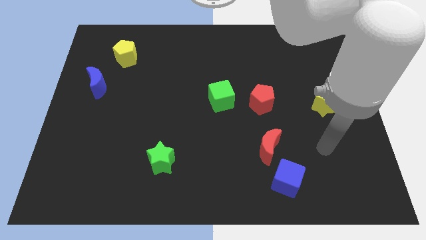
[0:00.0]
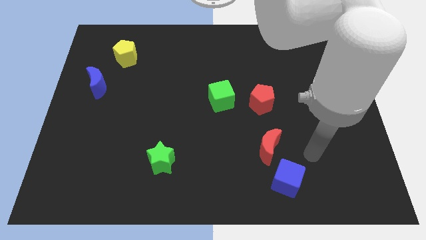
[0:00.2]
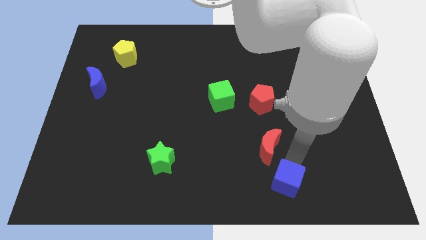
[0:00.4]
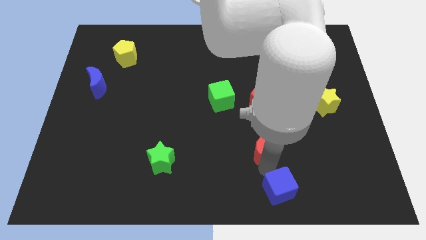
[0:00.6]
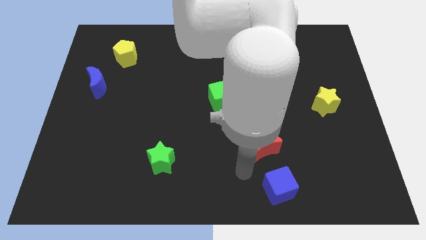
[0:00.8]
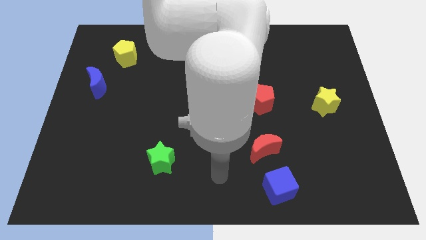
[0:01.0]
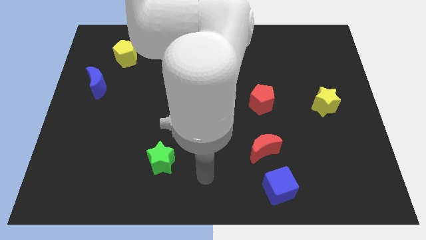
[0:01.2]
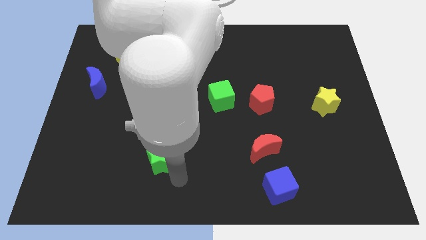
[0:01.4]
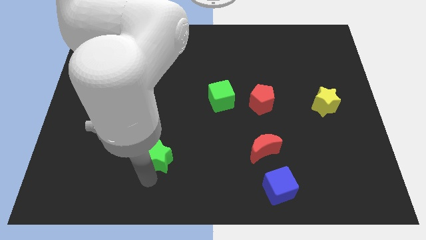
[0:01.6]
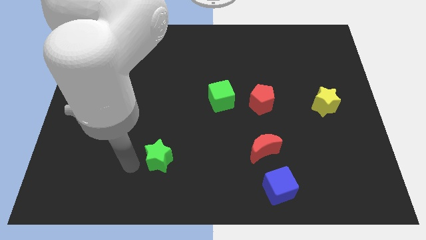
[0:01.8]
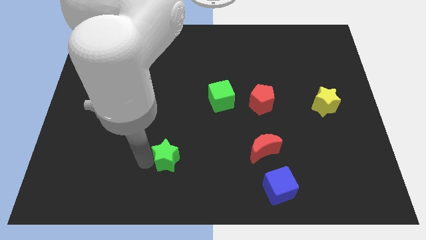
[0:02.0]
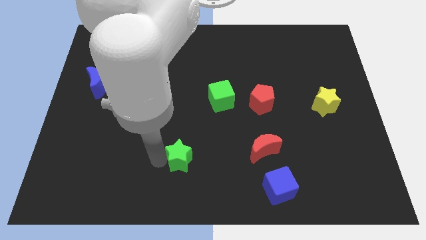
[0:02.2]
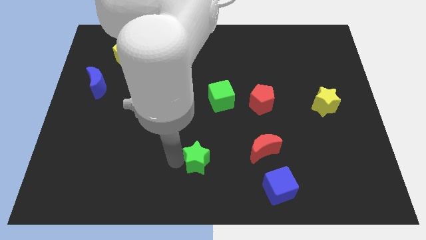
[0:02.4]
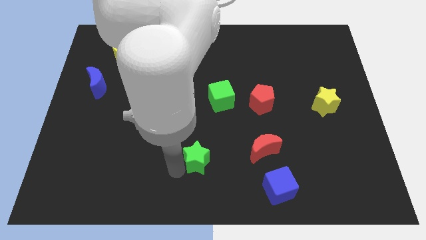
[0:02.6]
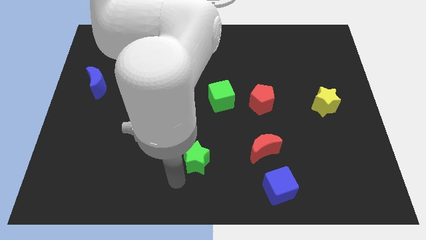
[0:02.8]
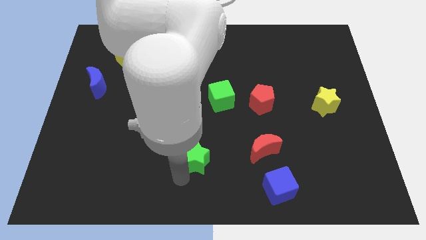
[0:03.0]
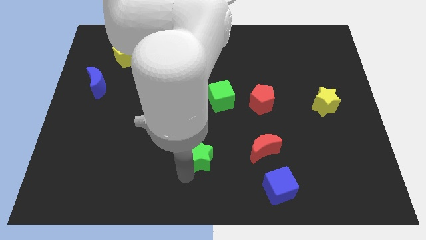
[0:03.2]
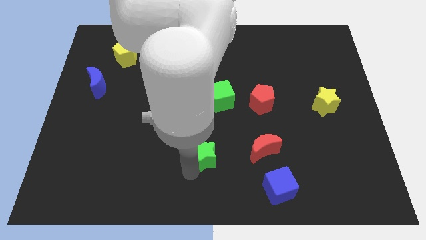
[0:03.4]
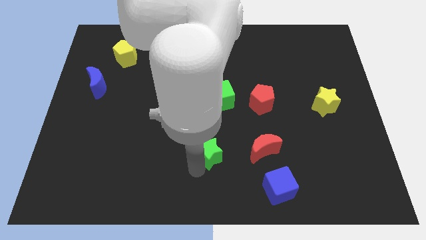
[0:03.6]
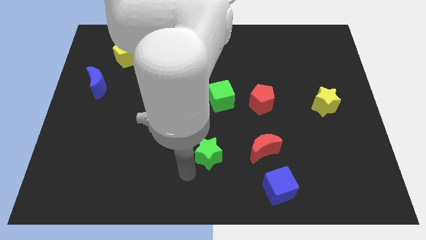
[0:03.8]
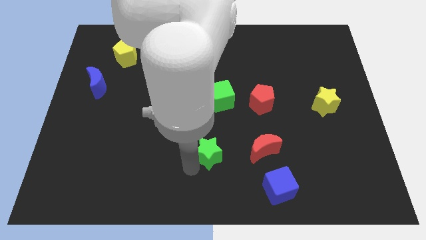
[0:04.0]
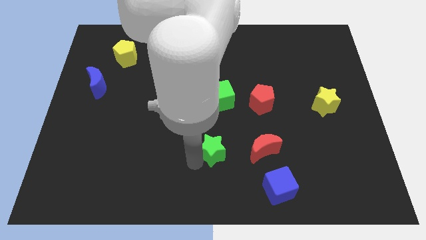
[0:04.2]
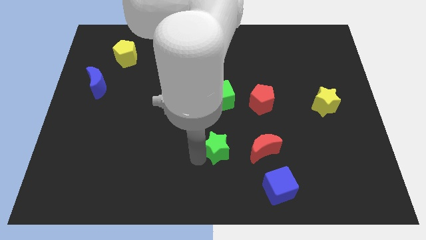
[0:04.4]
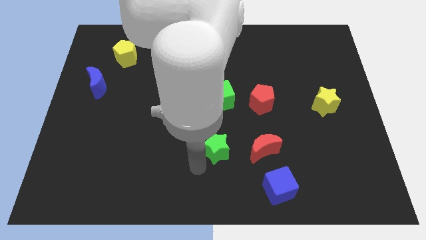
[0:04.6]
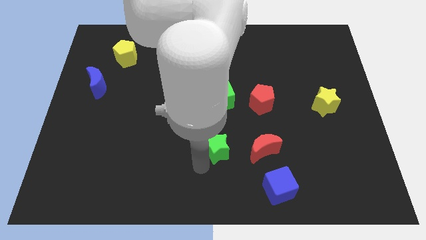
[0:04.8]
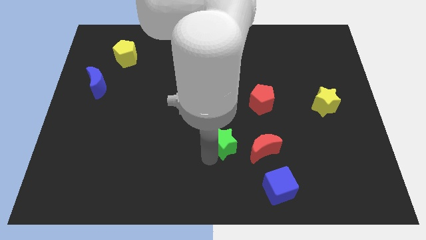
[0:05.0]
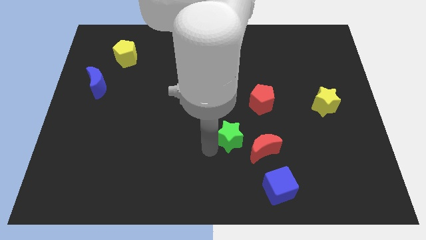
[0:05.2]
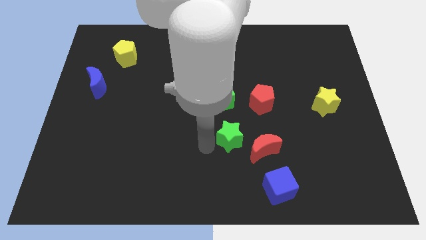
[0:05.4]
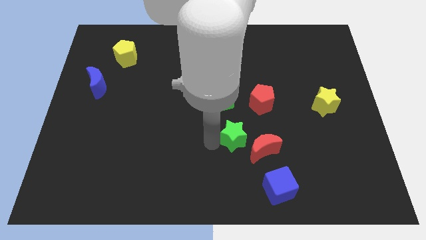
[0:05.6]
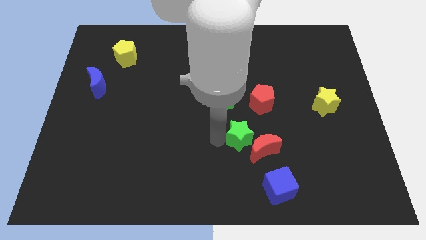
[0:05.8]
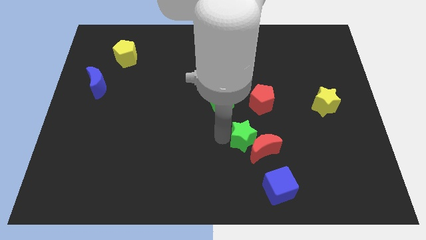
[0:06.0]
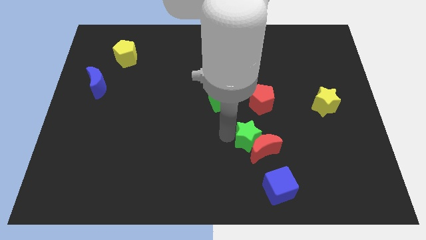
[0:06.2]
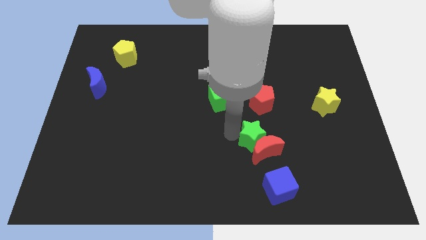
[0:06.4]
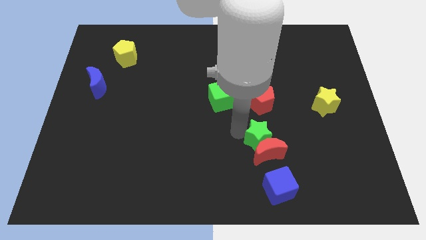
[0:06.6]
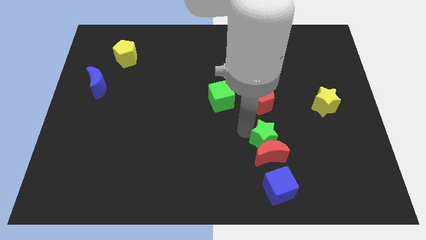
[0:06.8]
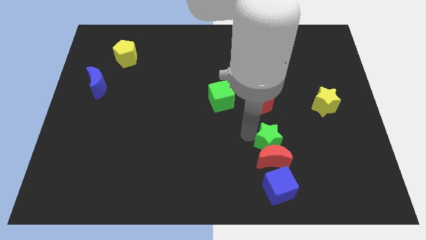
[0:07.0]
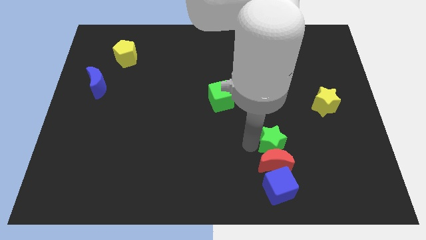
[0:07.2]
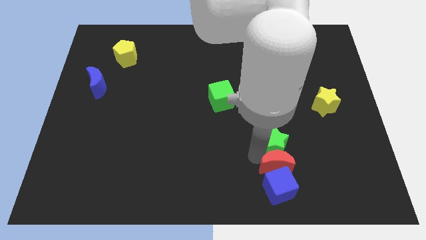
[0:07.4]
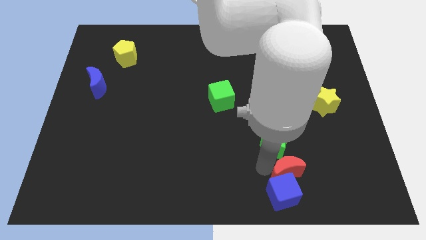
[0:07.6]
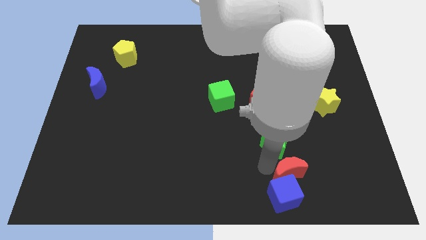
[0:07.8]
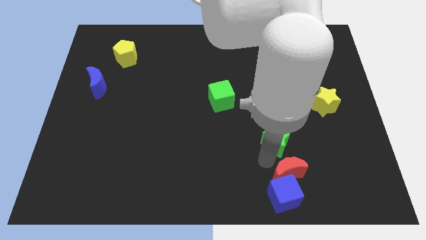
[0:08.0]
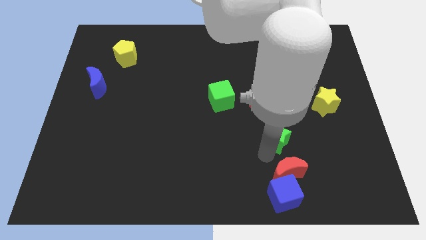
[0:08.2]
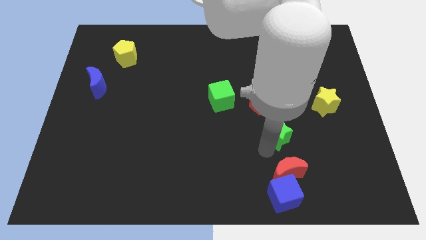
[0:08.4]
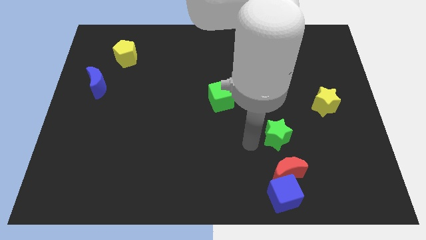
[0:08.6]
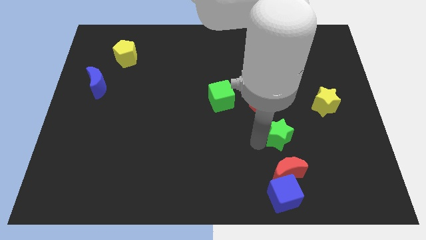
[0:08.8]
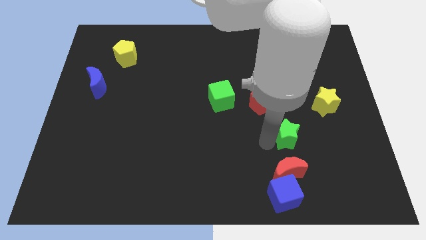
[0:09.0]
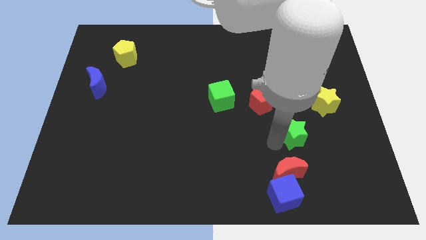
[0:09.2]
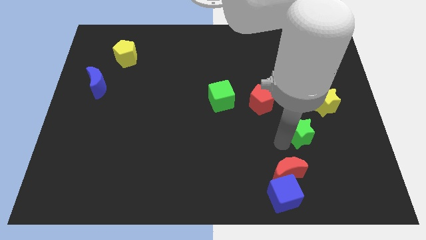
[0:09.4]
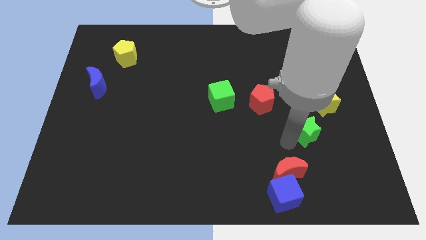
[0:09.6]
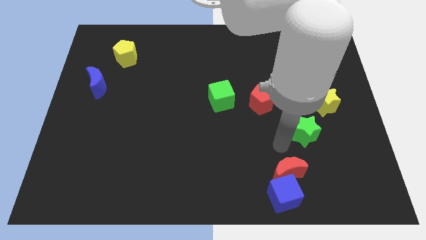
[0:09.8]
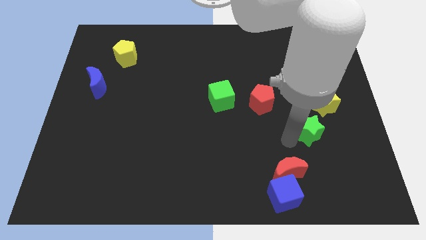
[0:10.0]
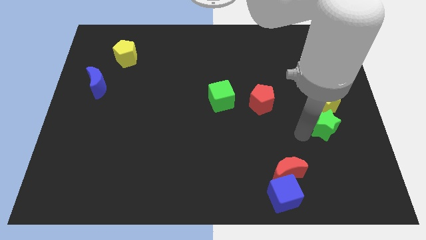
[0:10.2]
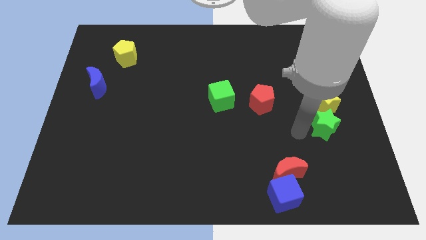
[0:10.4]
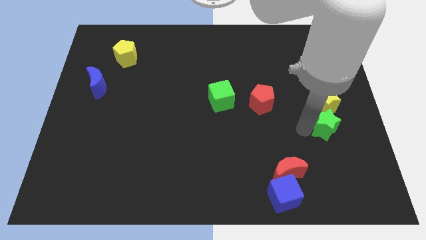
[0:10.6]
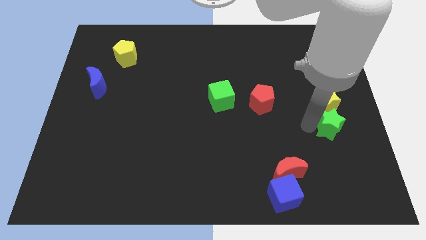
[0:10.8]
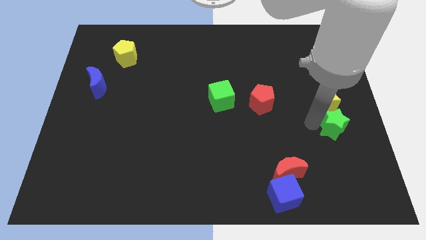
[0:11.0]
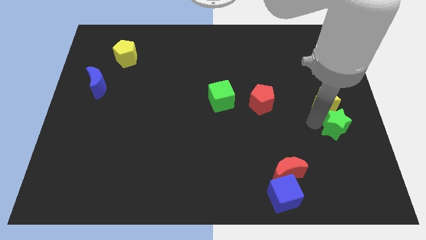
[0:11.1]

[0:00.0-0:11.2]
push the green star to the right side

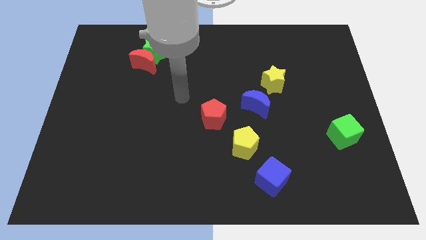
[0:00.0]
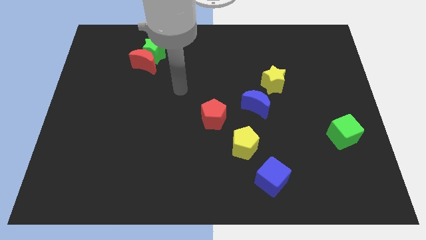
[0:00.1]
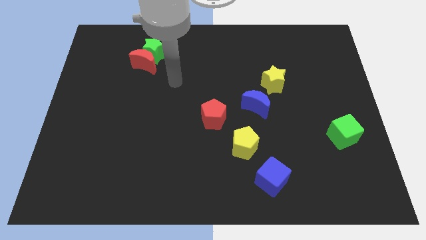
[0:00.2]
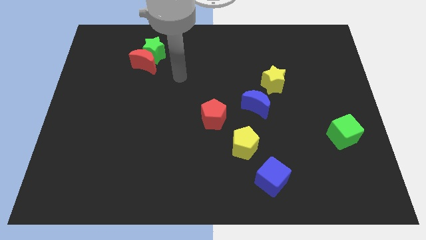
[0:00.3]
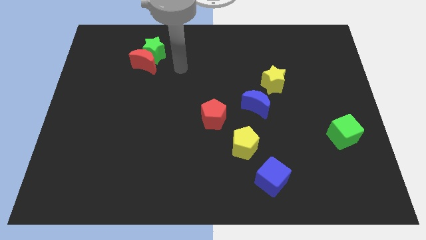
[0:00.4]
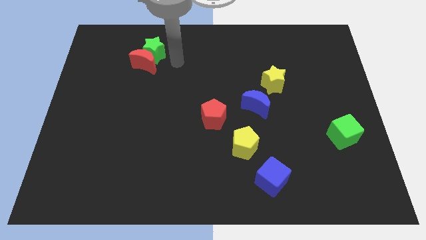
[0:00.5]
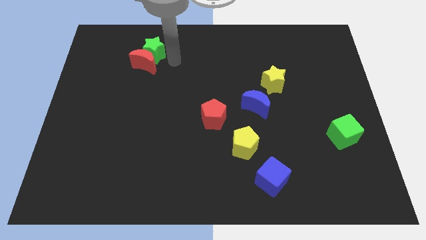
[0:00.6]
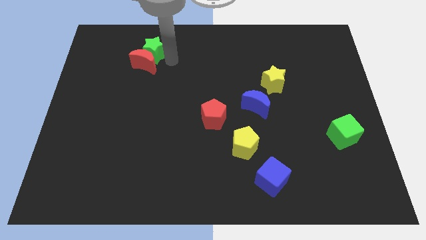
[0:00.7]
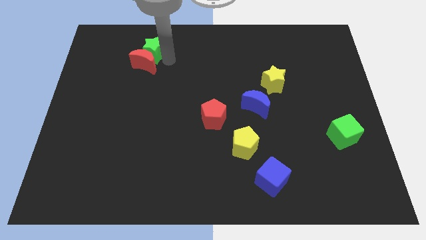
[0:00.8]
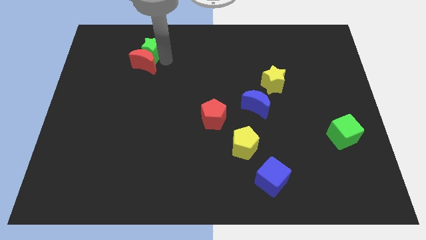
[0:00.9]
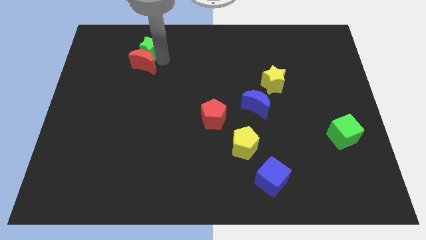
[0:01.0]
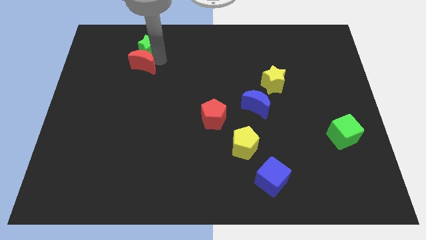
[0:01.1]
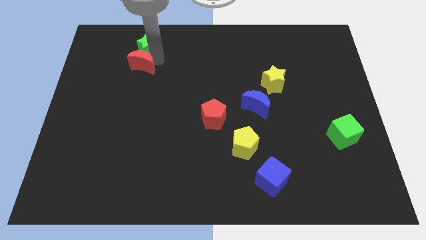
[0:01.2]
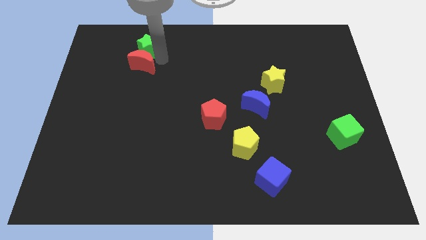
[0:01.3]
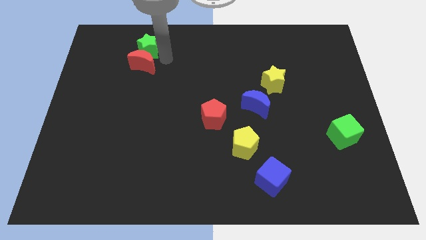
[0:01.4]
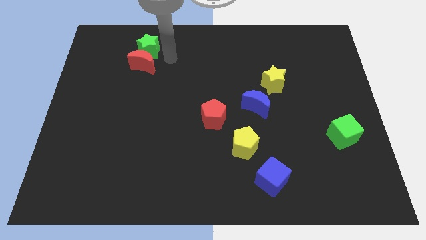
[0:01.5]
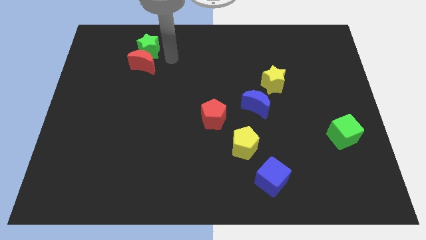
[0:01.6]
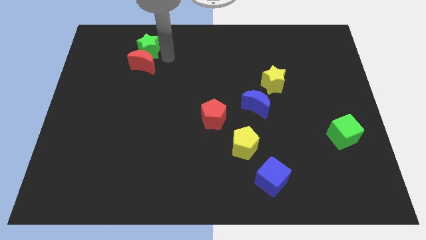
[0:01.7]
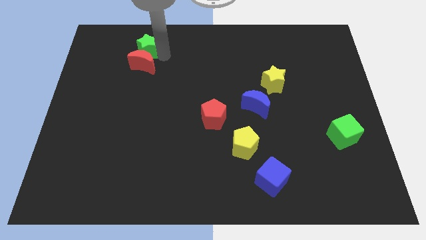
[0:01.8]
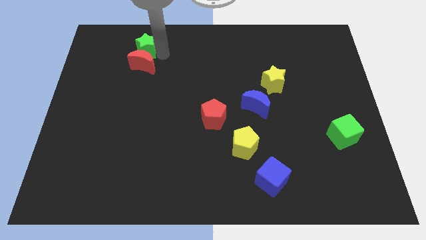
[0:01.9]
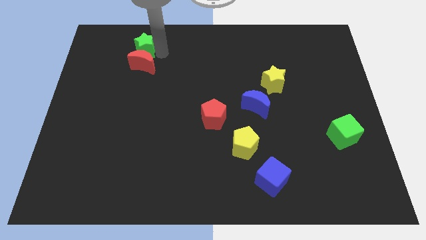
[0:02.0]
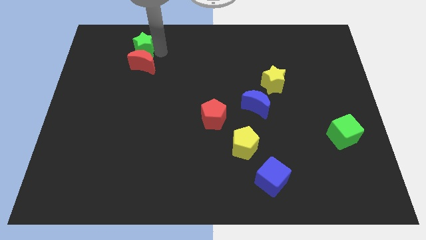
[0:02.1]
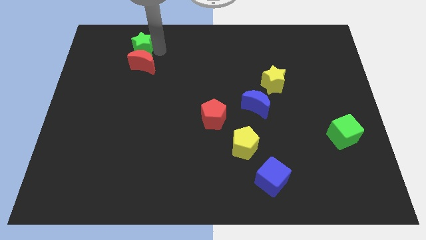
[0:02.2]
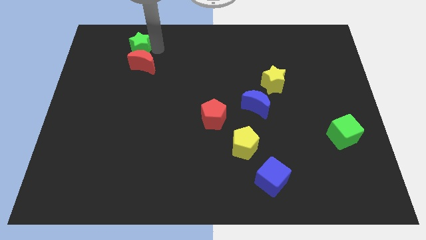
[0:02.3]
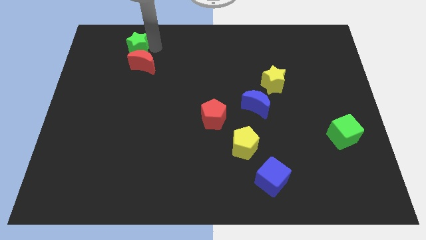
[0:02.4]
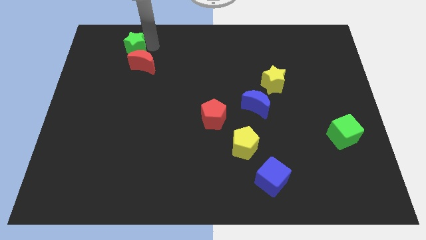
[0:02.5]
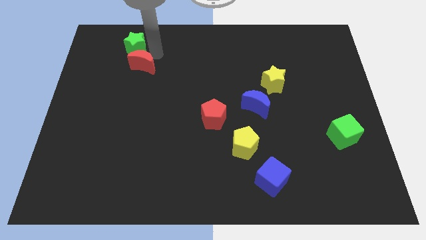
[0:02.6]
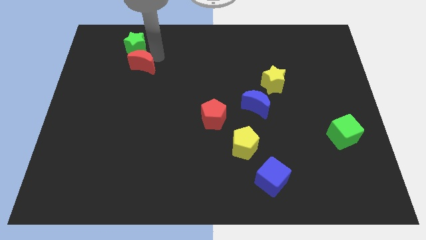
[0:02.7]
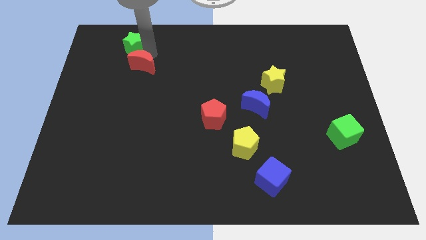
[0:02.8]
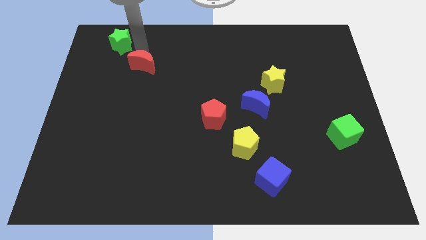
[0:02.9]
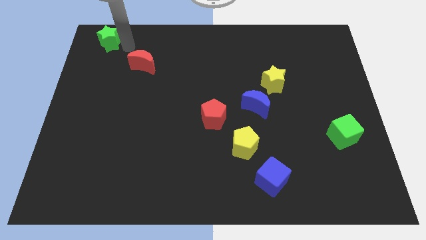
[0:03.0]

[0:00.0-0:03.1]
move the green star to the top left corner
